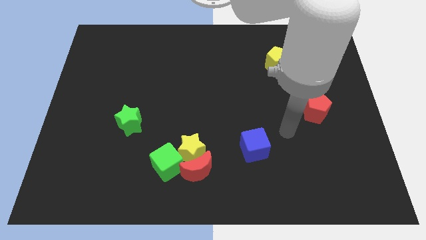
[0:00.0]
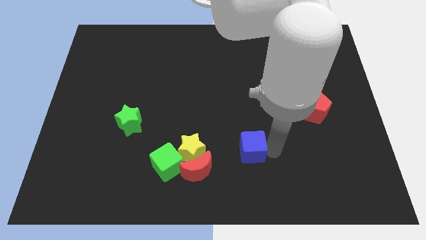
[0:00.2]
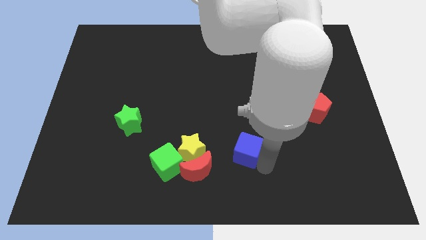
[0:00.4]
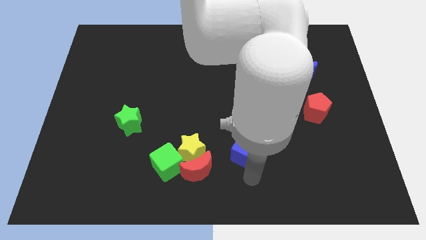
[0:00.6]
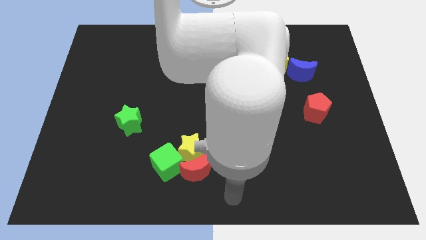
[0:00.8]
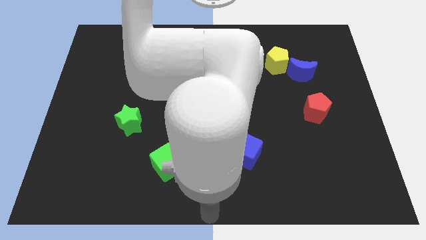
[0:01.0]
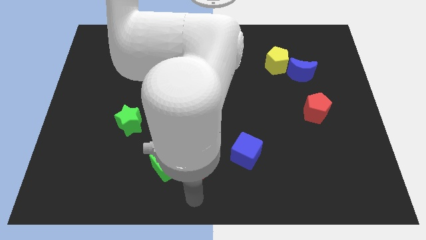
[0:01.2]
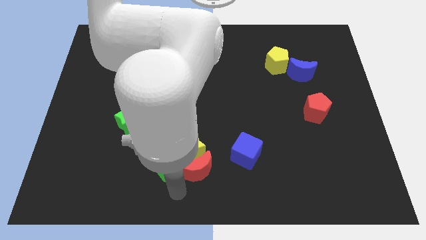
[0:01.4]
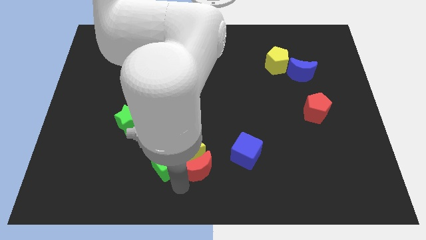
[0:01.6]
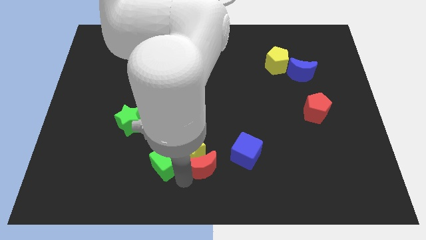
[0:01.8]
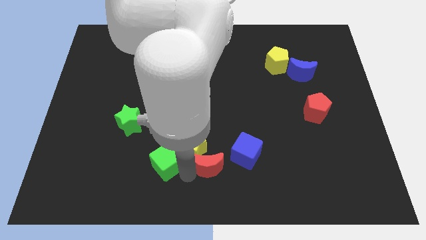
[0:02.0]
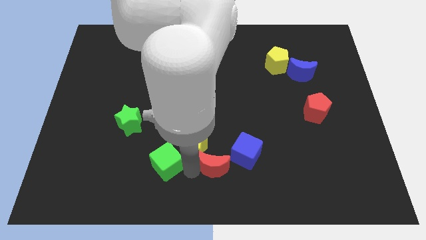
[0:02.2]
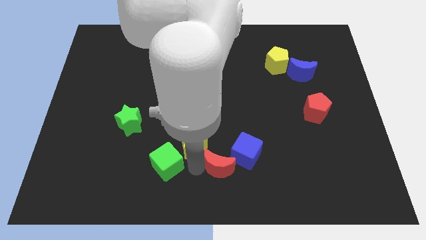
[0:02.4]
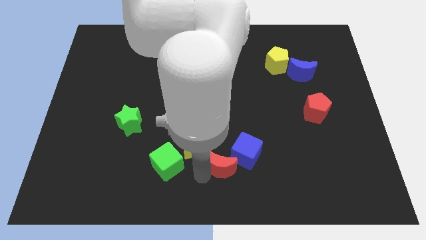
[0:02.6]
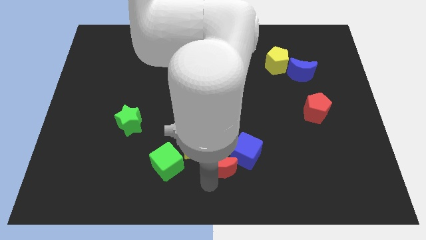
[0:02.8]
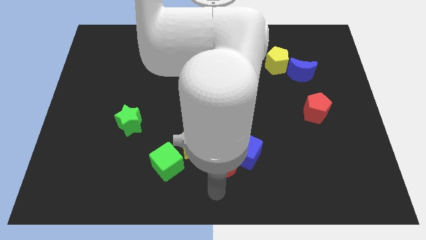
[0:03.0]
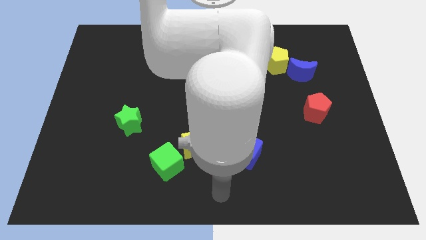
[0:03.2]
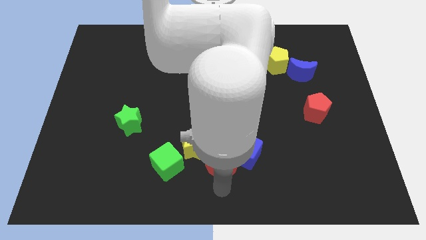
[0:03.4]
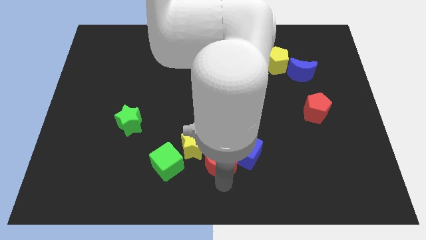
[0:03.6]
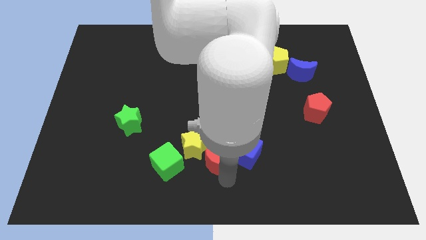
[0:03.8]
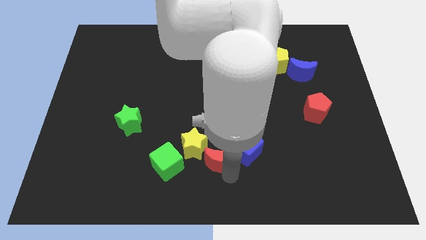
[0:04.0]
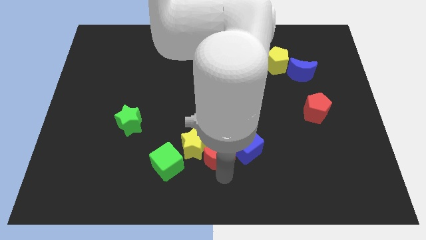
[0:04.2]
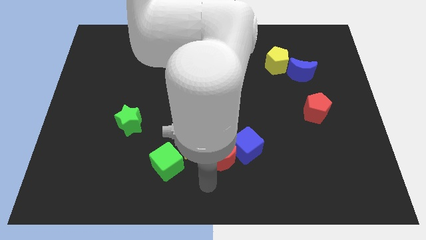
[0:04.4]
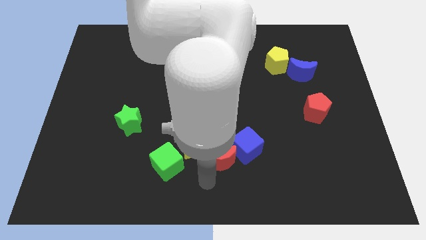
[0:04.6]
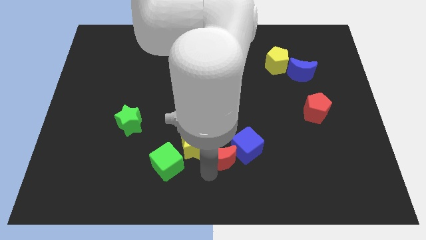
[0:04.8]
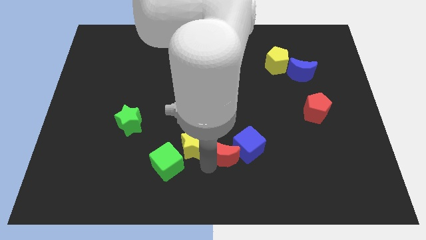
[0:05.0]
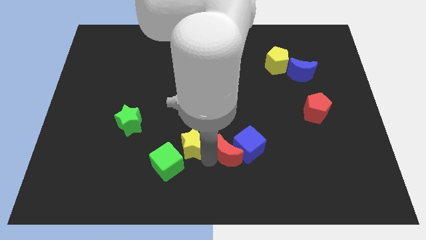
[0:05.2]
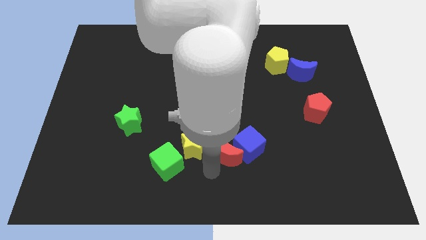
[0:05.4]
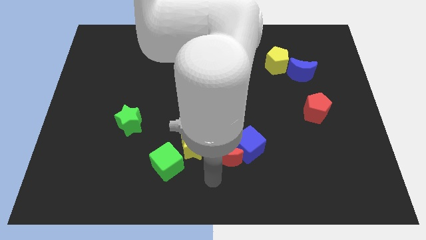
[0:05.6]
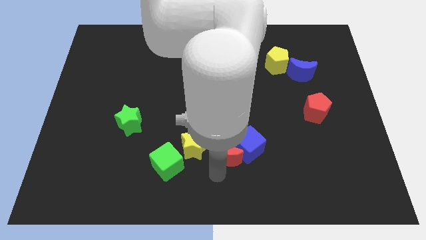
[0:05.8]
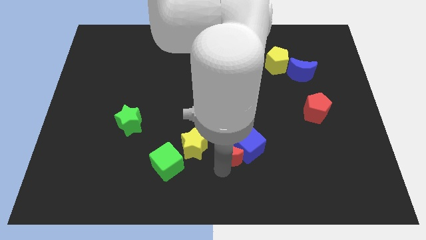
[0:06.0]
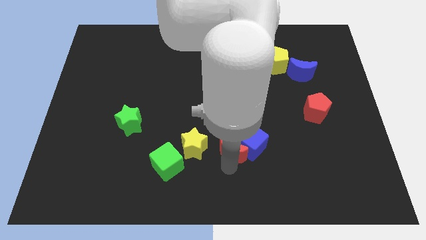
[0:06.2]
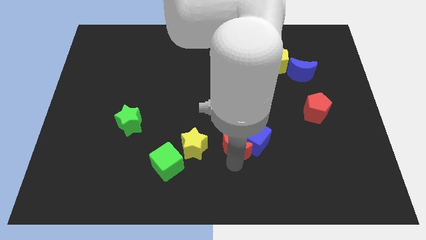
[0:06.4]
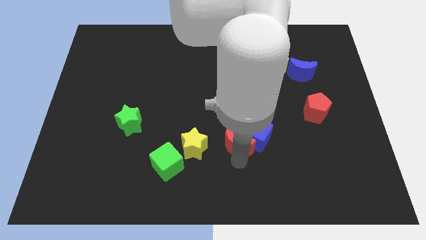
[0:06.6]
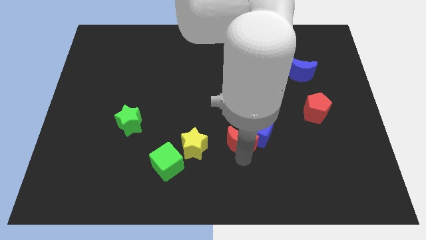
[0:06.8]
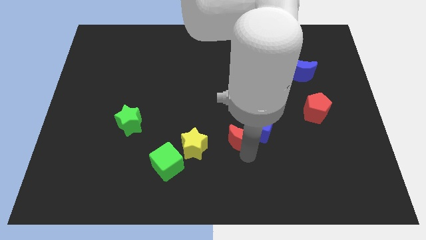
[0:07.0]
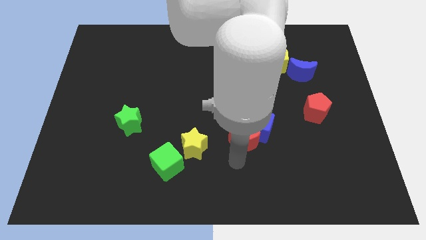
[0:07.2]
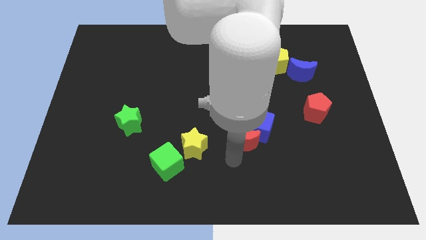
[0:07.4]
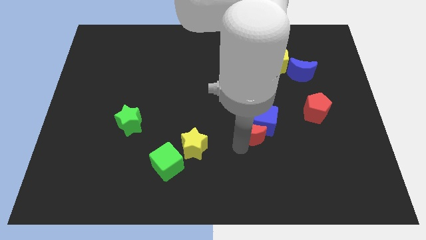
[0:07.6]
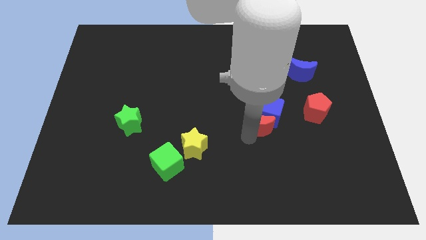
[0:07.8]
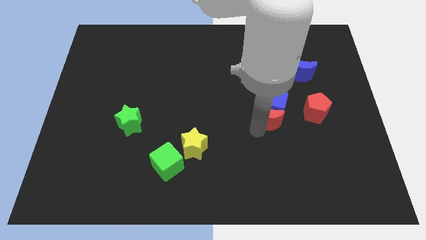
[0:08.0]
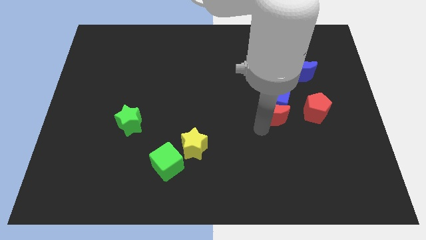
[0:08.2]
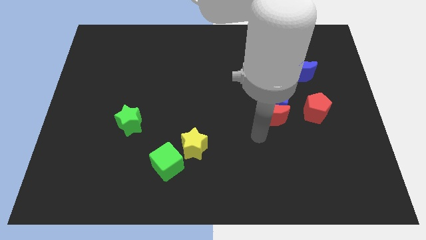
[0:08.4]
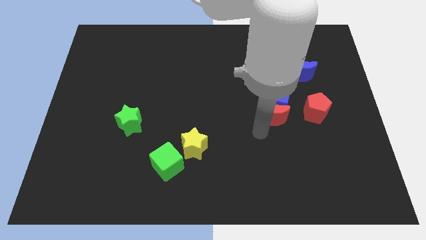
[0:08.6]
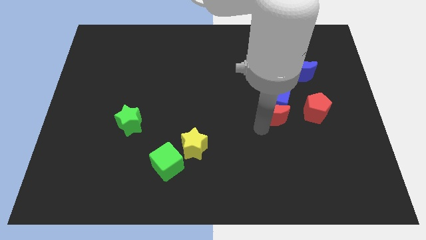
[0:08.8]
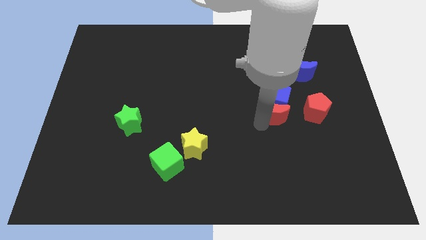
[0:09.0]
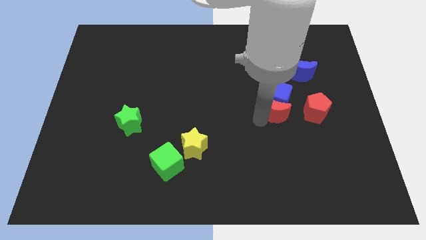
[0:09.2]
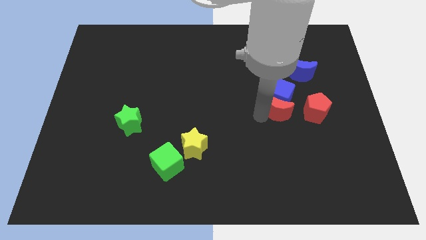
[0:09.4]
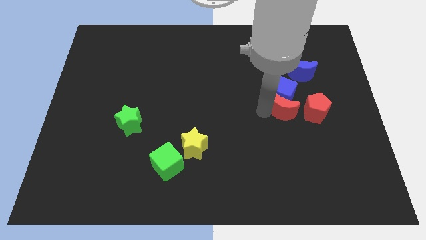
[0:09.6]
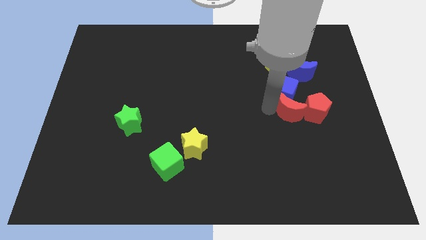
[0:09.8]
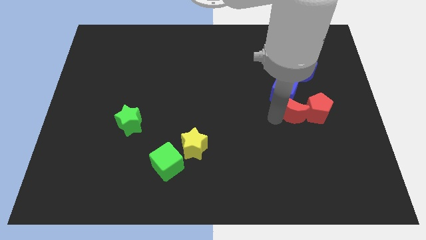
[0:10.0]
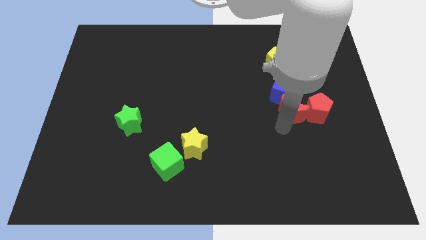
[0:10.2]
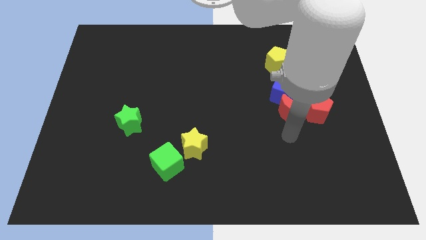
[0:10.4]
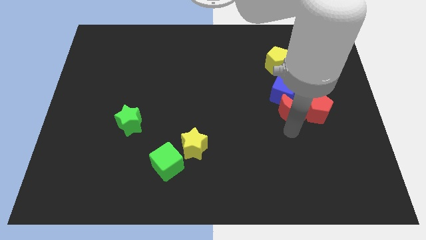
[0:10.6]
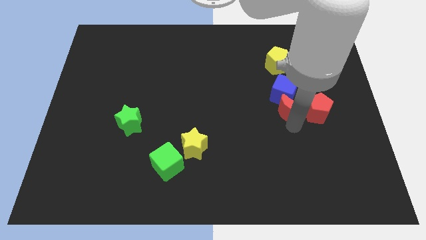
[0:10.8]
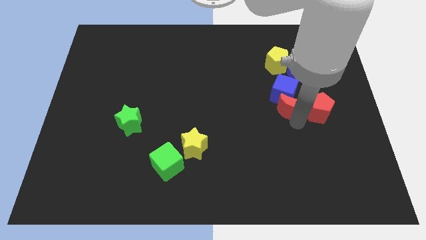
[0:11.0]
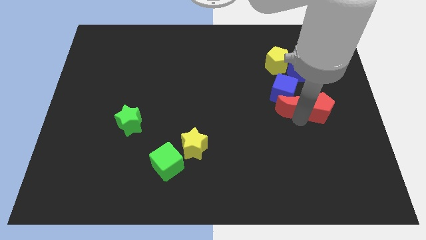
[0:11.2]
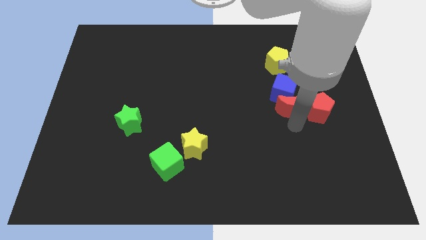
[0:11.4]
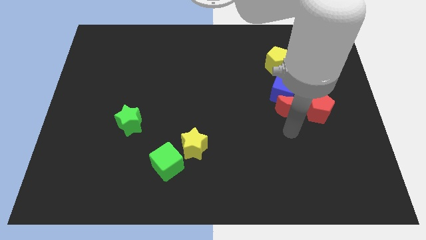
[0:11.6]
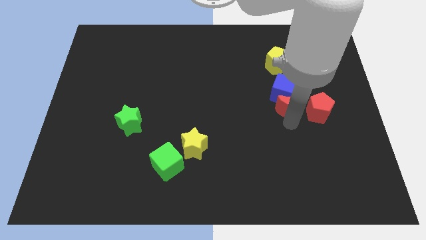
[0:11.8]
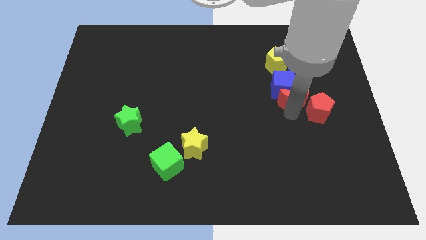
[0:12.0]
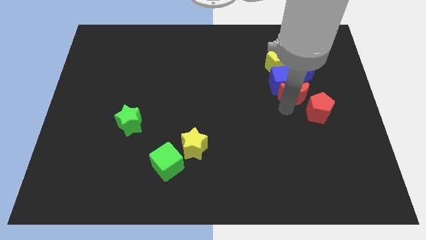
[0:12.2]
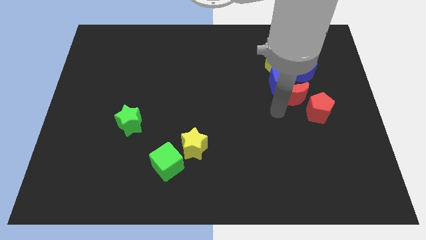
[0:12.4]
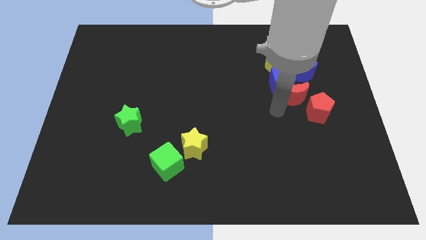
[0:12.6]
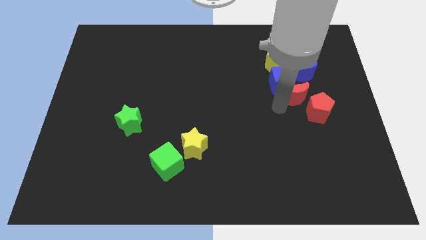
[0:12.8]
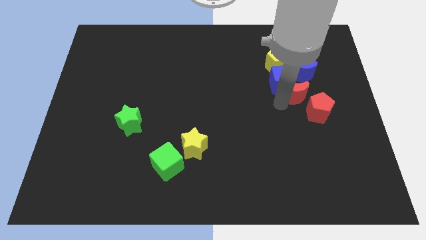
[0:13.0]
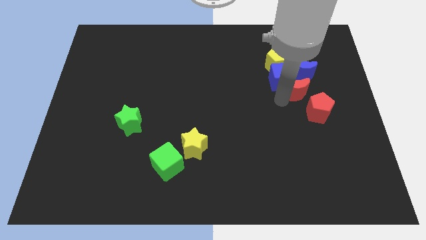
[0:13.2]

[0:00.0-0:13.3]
move the red moon to the top side of the red pentagon
